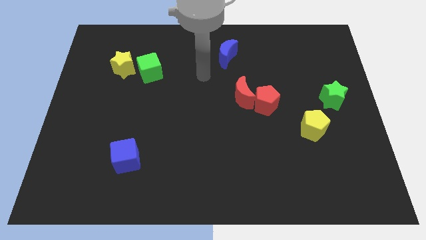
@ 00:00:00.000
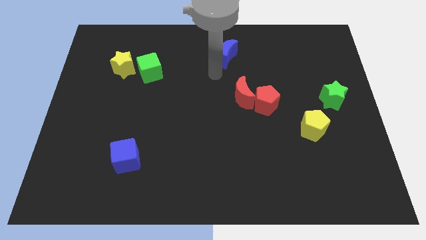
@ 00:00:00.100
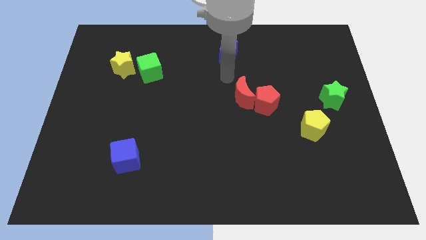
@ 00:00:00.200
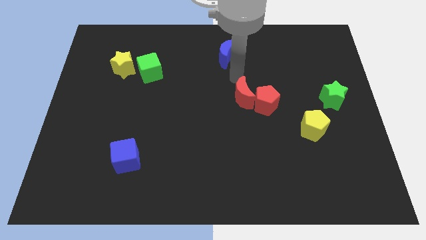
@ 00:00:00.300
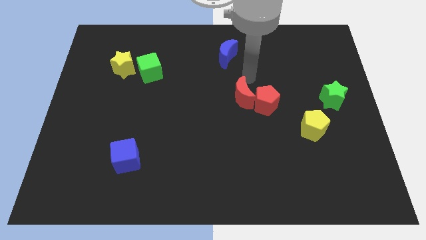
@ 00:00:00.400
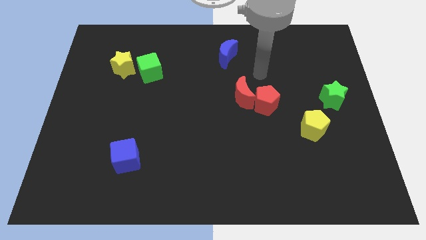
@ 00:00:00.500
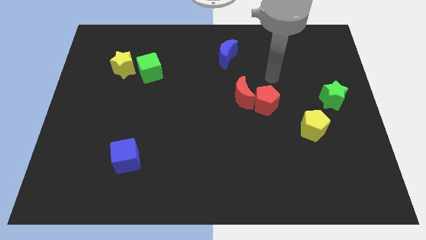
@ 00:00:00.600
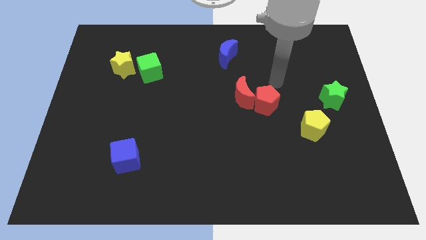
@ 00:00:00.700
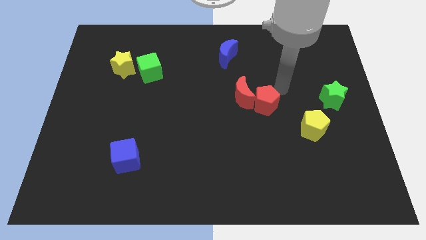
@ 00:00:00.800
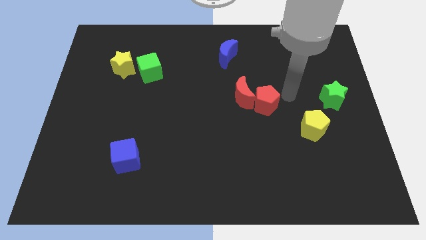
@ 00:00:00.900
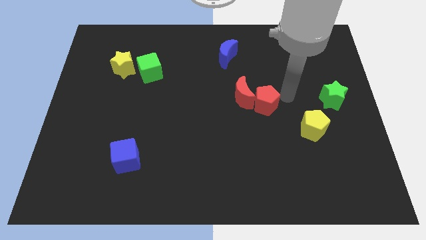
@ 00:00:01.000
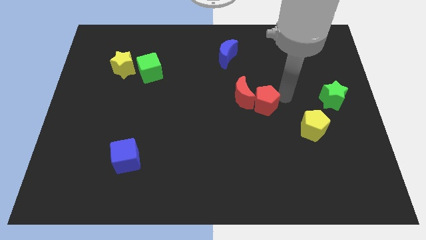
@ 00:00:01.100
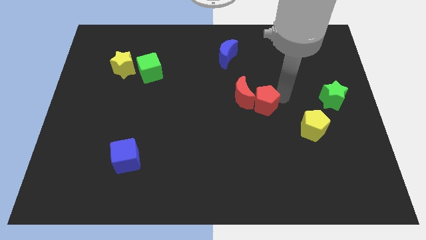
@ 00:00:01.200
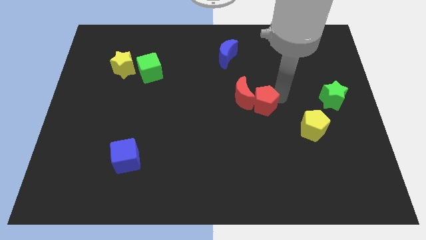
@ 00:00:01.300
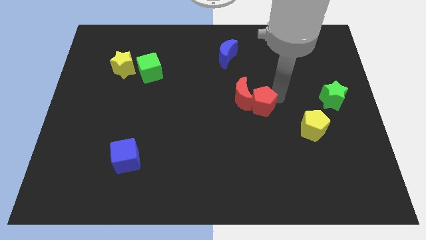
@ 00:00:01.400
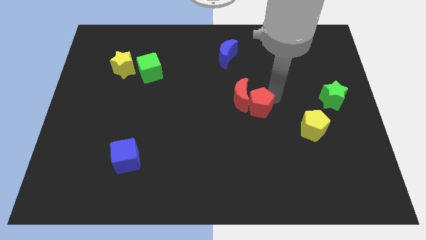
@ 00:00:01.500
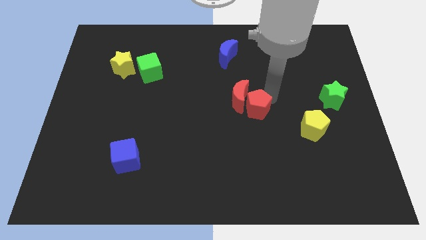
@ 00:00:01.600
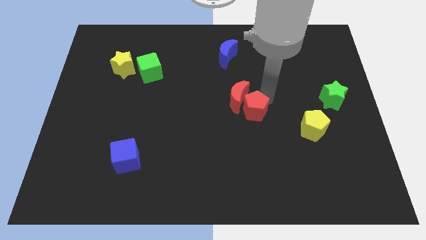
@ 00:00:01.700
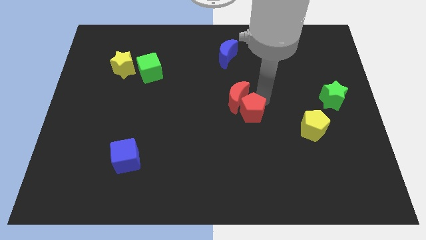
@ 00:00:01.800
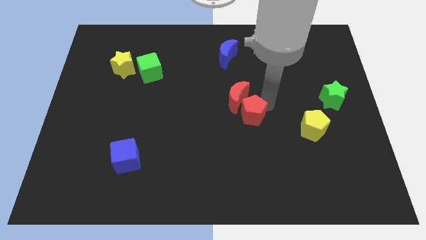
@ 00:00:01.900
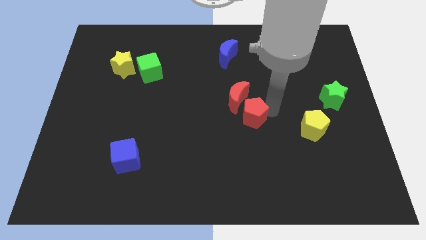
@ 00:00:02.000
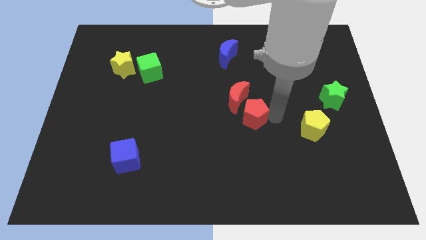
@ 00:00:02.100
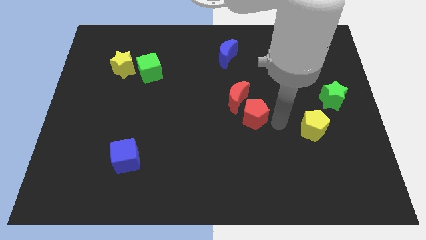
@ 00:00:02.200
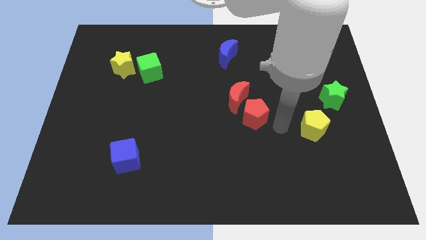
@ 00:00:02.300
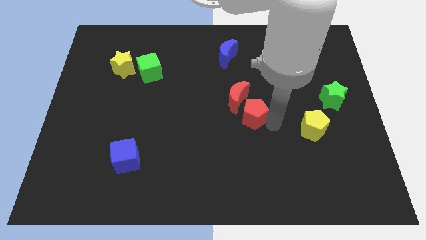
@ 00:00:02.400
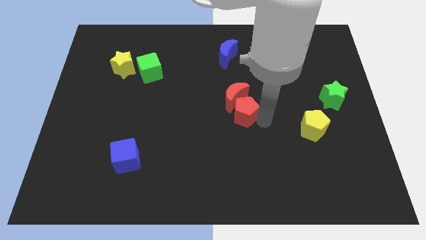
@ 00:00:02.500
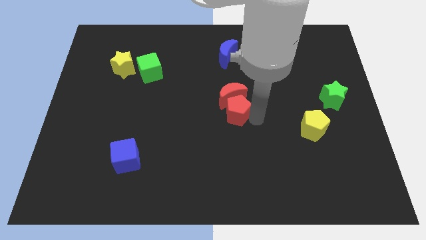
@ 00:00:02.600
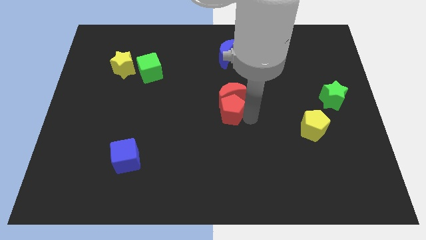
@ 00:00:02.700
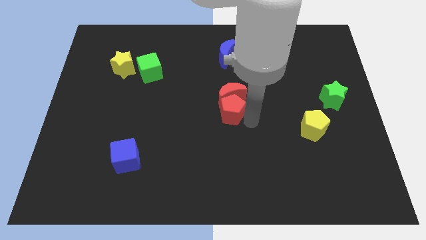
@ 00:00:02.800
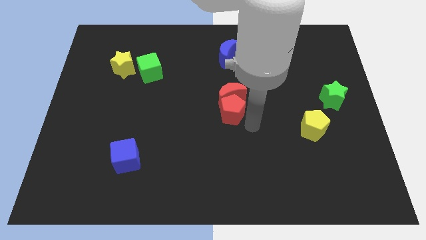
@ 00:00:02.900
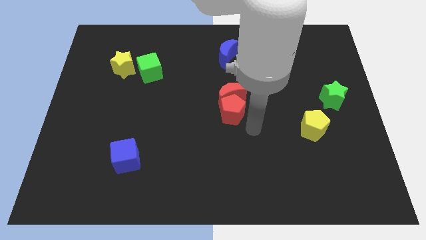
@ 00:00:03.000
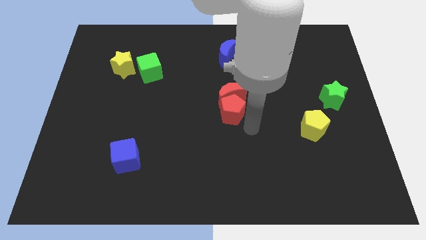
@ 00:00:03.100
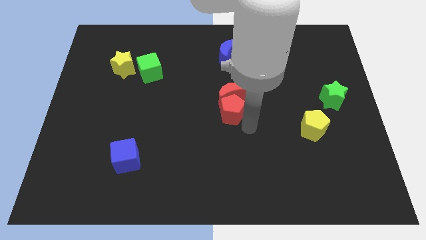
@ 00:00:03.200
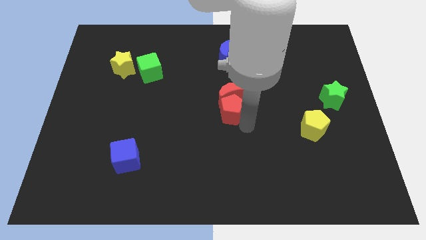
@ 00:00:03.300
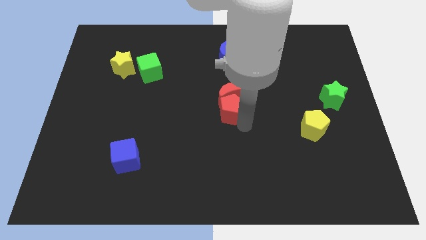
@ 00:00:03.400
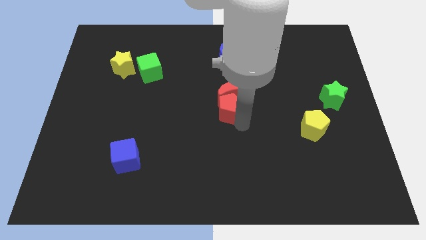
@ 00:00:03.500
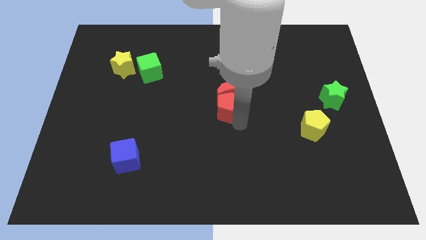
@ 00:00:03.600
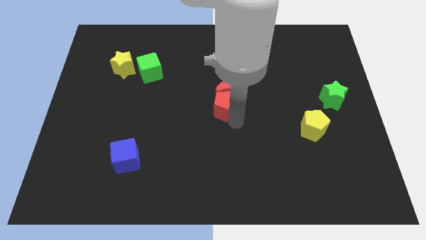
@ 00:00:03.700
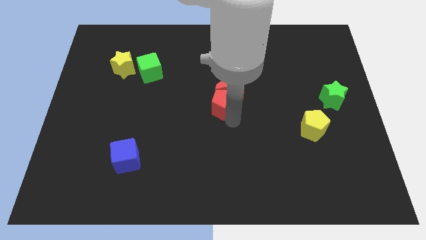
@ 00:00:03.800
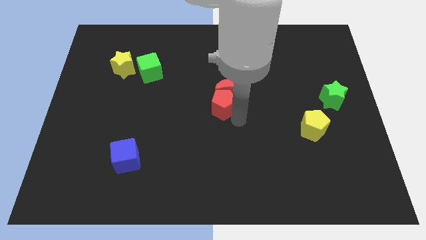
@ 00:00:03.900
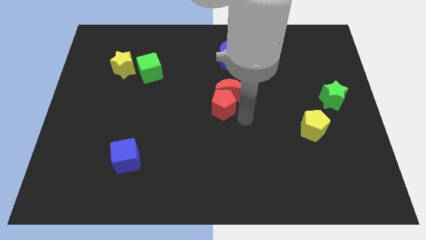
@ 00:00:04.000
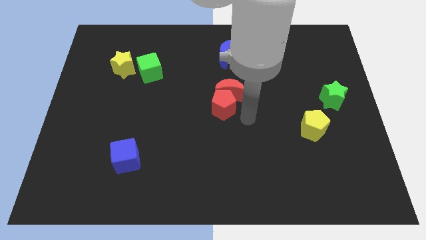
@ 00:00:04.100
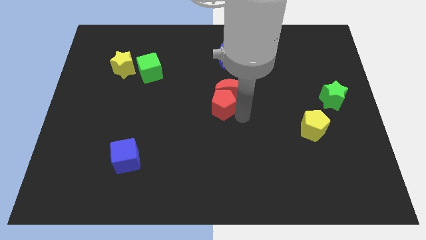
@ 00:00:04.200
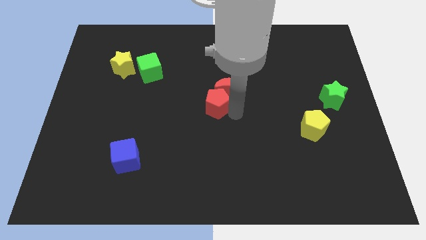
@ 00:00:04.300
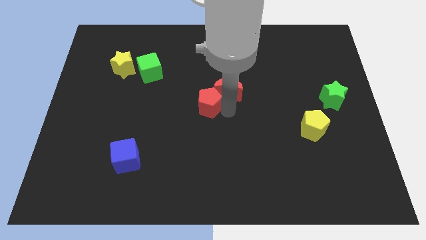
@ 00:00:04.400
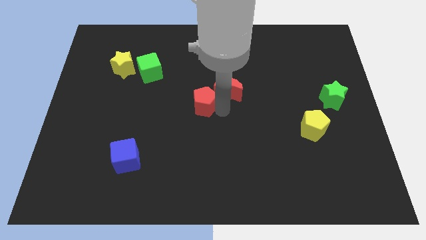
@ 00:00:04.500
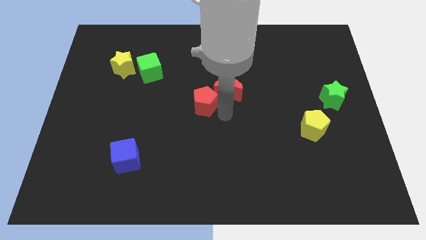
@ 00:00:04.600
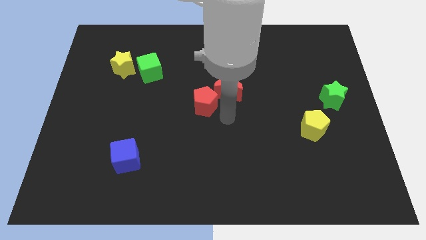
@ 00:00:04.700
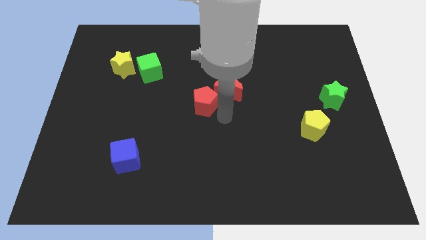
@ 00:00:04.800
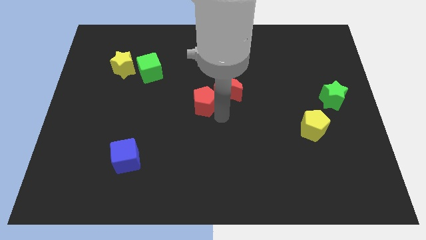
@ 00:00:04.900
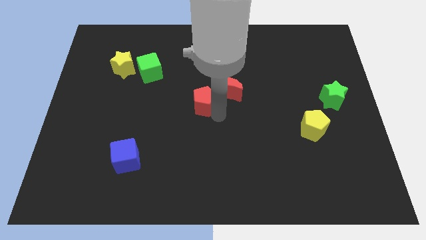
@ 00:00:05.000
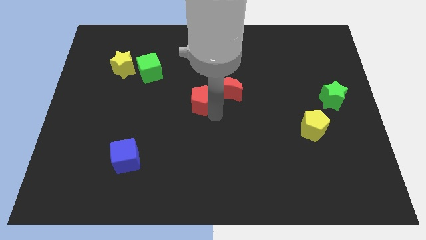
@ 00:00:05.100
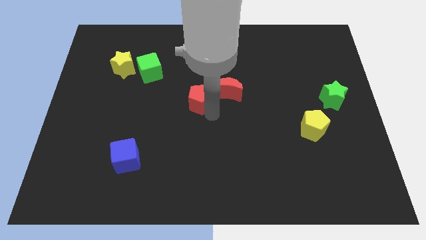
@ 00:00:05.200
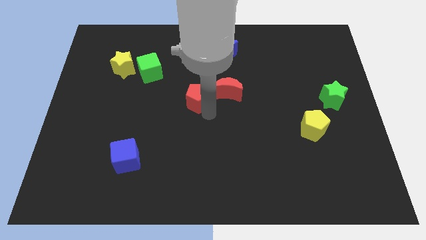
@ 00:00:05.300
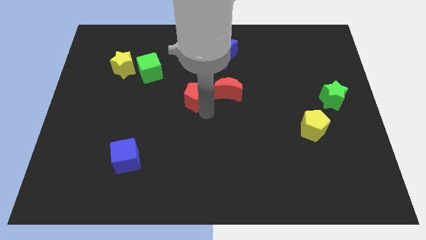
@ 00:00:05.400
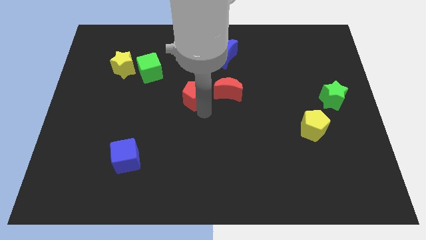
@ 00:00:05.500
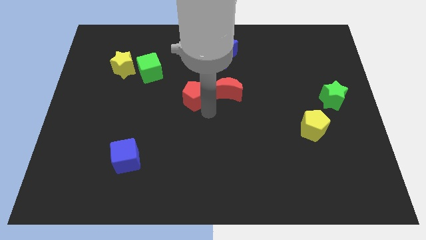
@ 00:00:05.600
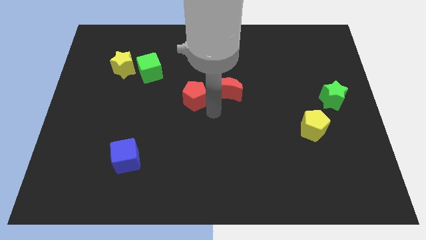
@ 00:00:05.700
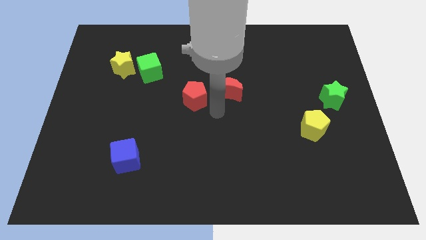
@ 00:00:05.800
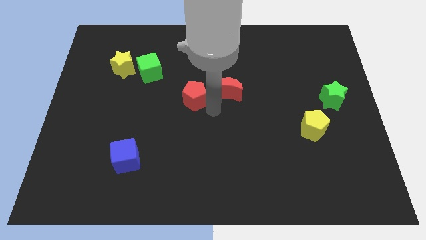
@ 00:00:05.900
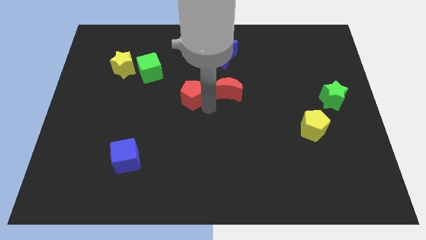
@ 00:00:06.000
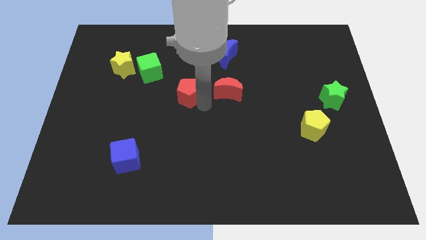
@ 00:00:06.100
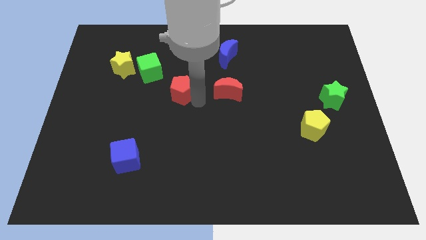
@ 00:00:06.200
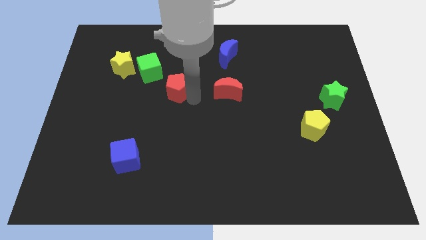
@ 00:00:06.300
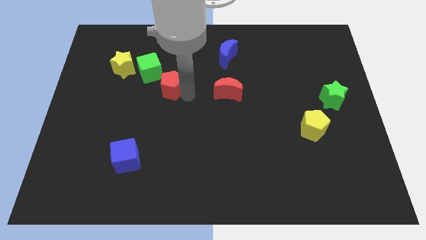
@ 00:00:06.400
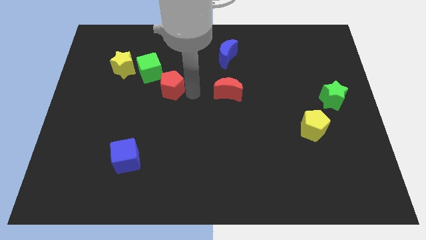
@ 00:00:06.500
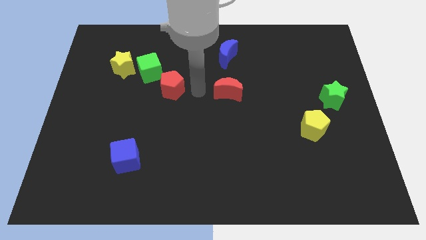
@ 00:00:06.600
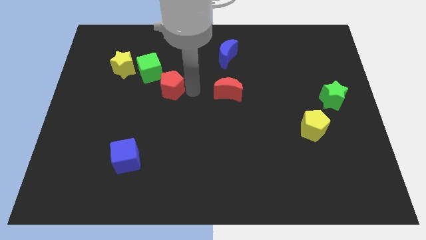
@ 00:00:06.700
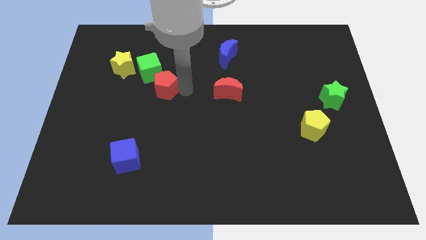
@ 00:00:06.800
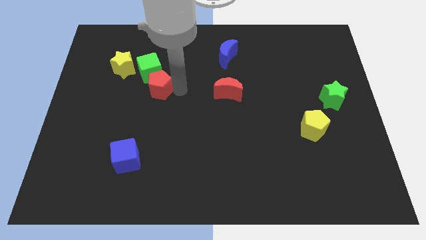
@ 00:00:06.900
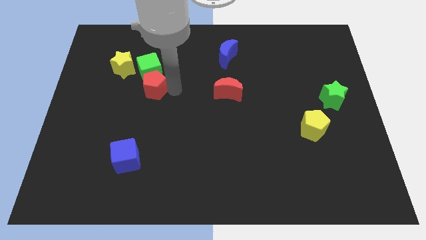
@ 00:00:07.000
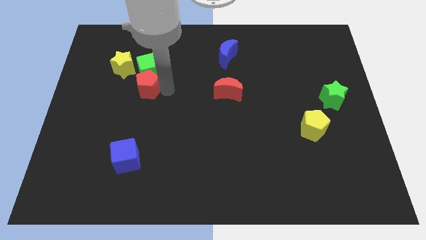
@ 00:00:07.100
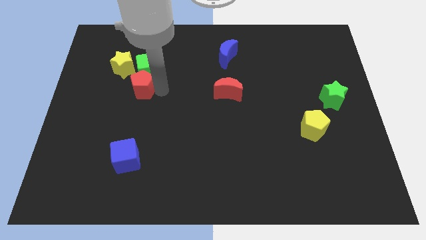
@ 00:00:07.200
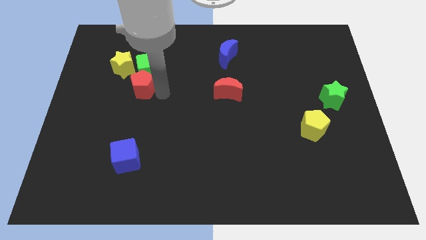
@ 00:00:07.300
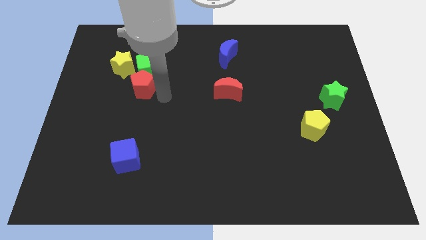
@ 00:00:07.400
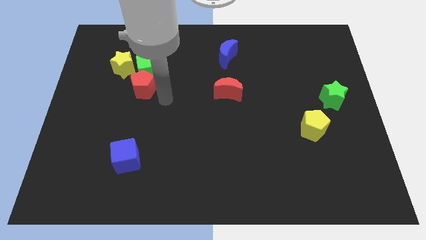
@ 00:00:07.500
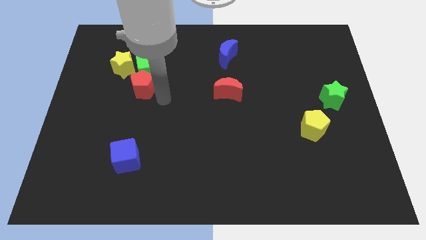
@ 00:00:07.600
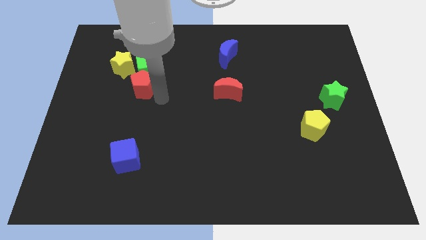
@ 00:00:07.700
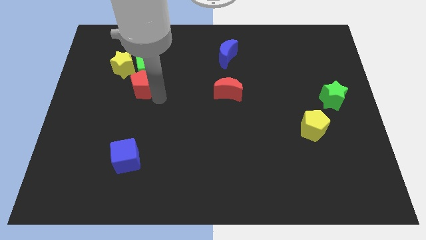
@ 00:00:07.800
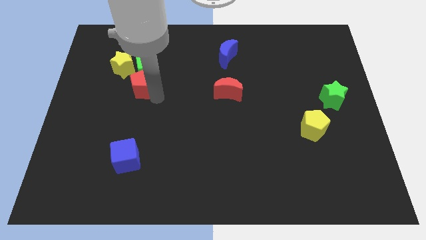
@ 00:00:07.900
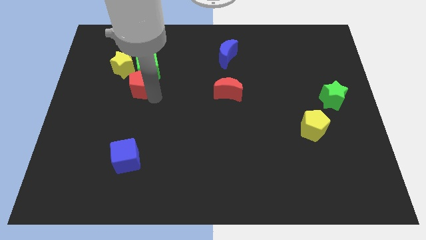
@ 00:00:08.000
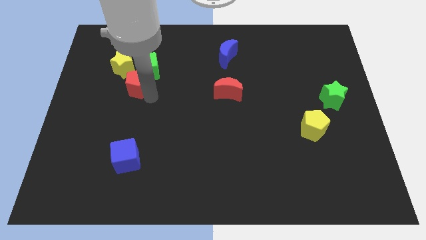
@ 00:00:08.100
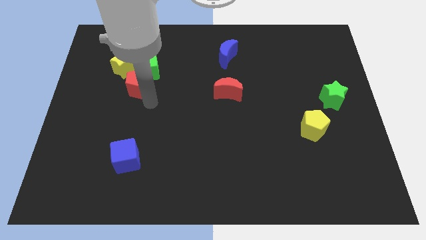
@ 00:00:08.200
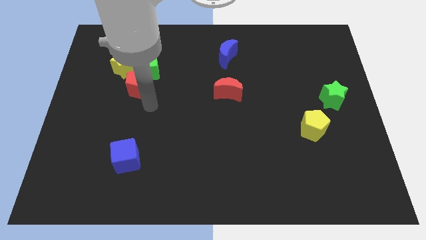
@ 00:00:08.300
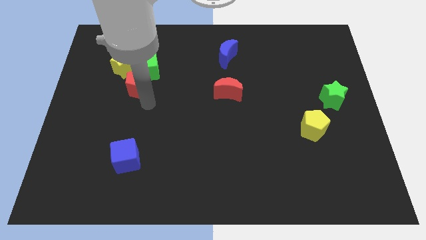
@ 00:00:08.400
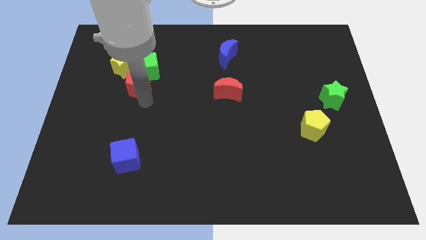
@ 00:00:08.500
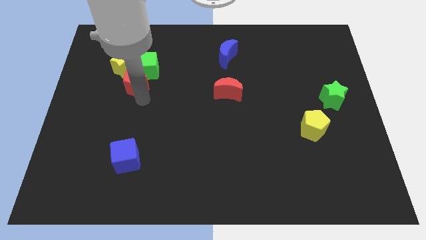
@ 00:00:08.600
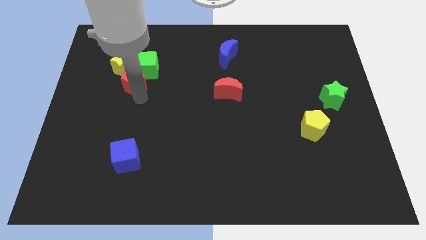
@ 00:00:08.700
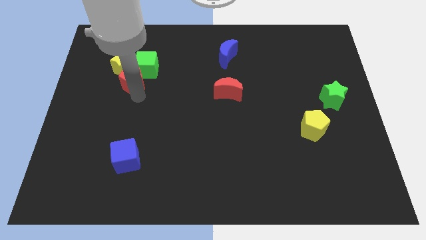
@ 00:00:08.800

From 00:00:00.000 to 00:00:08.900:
push the red pentagon to the yellow star
